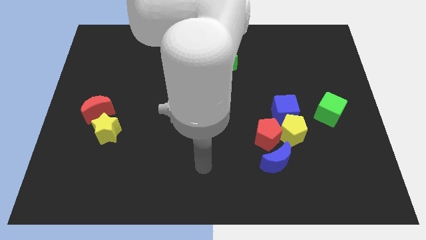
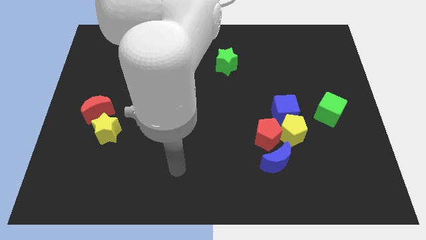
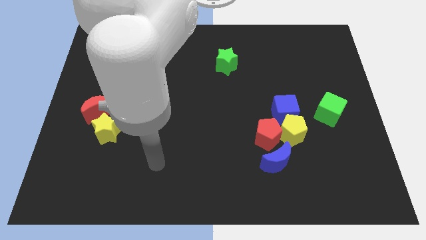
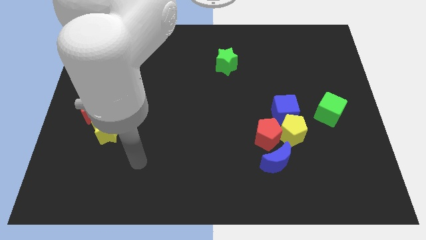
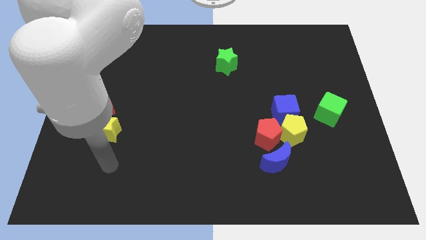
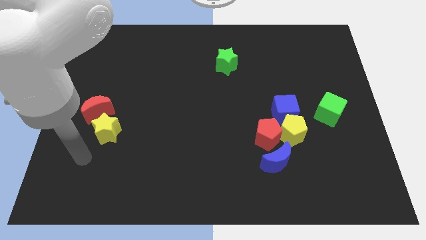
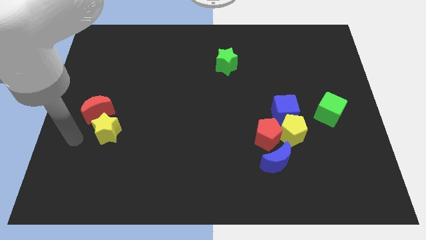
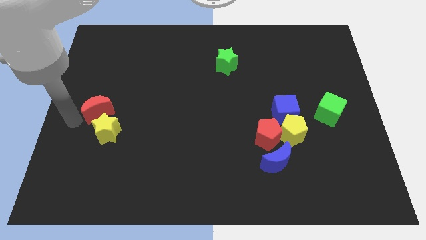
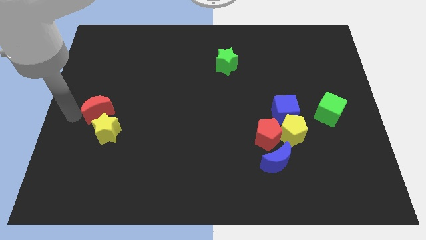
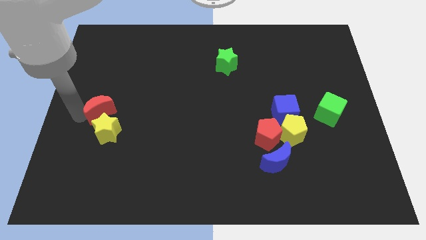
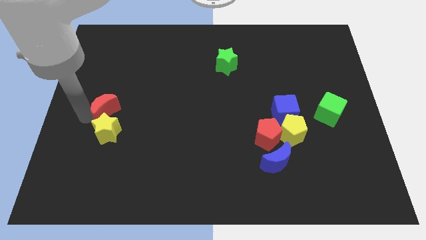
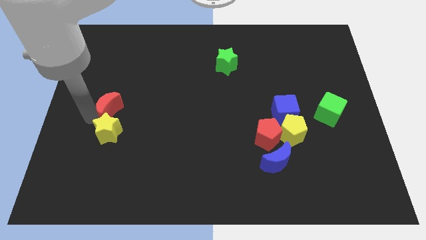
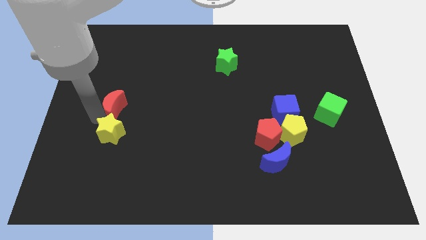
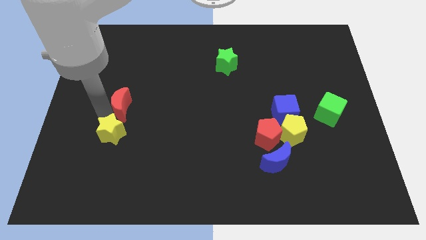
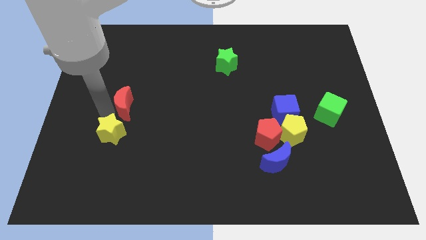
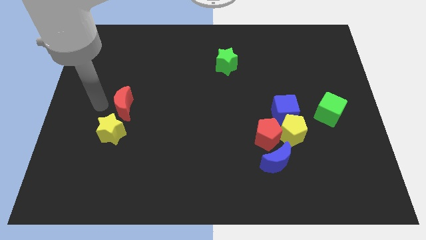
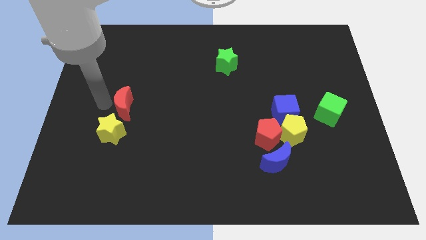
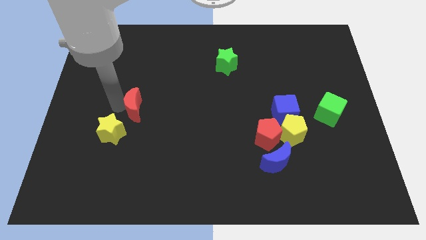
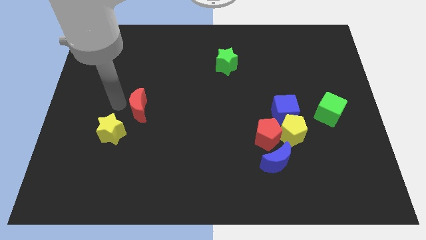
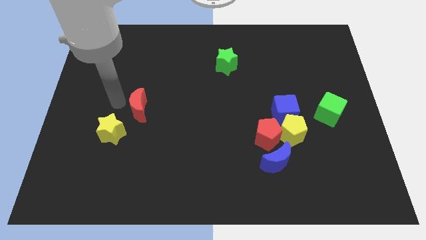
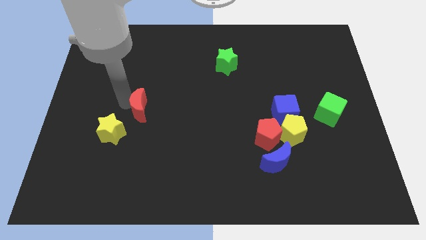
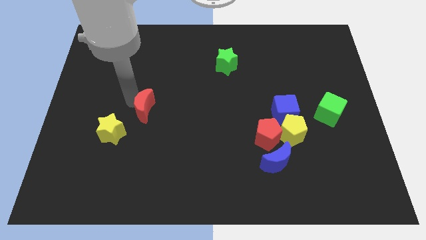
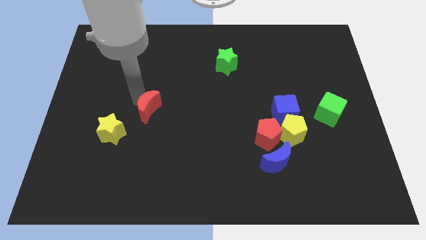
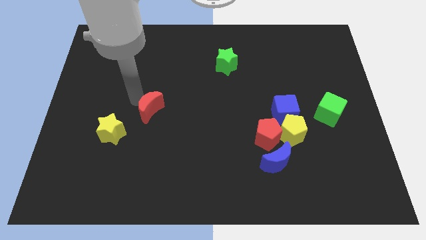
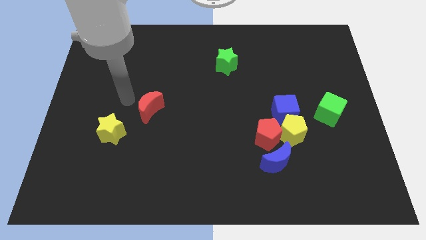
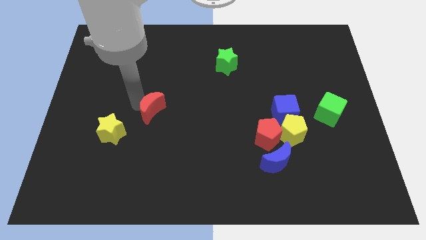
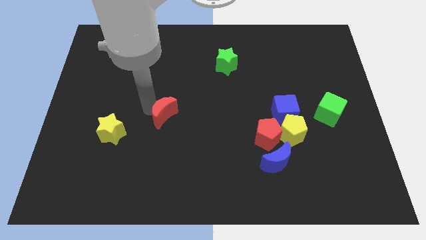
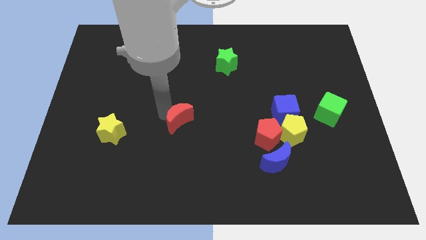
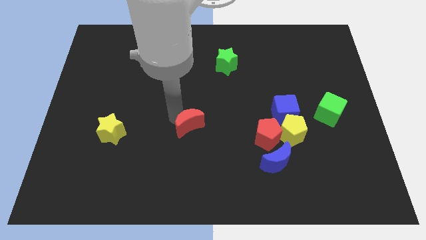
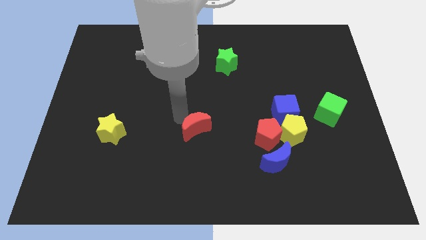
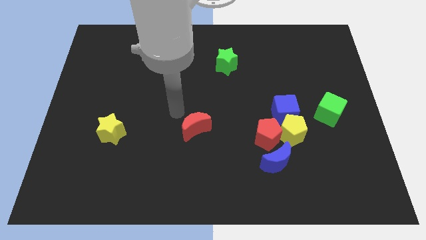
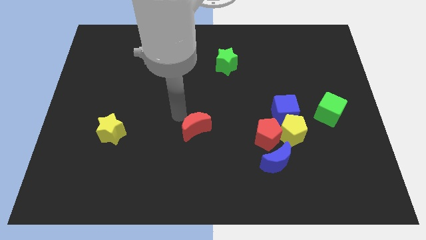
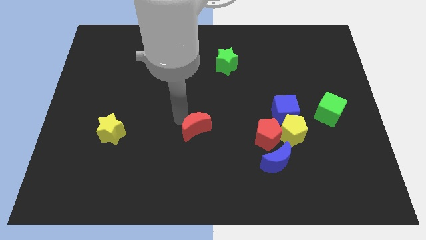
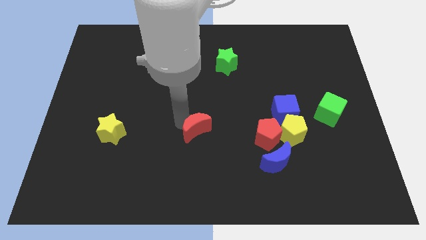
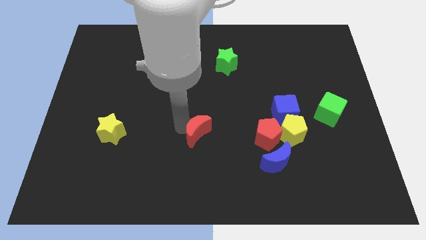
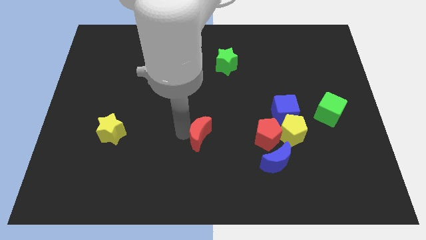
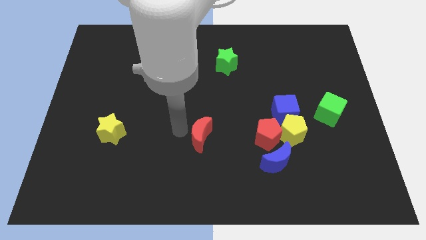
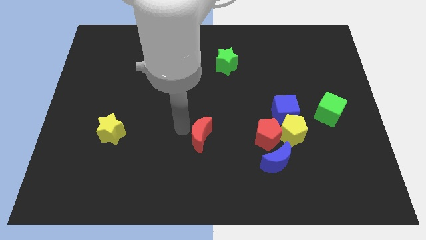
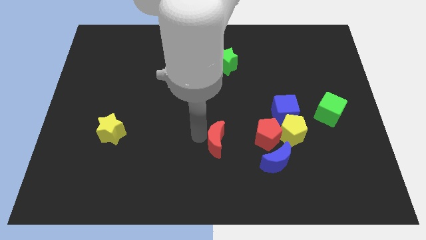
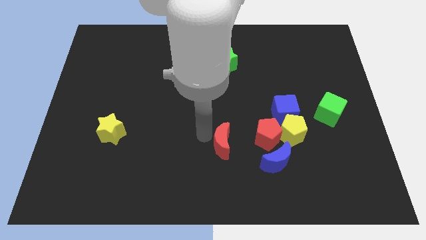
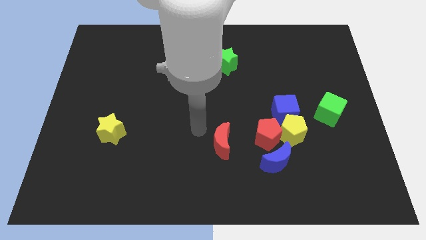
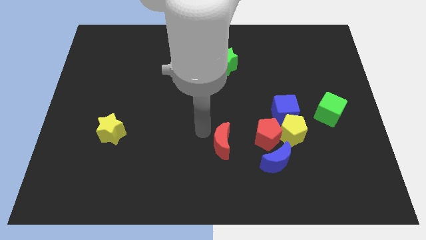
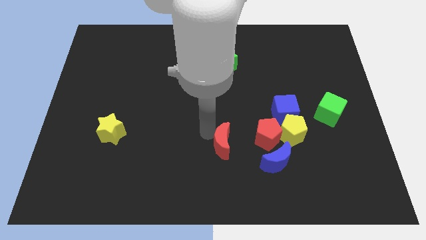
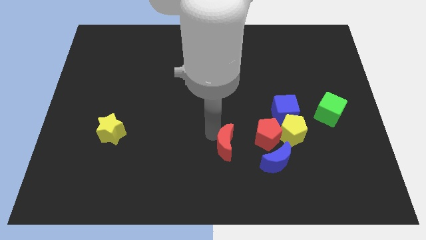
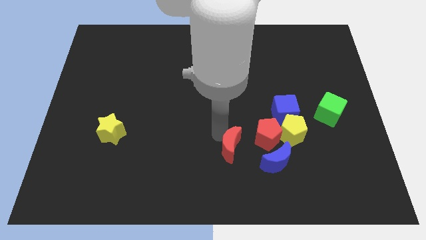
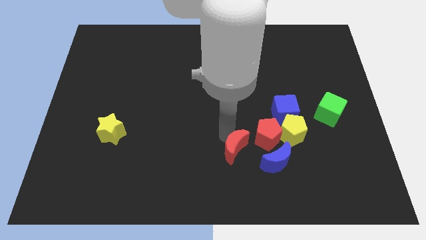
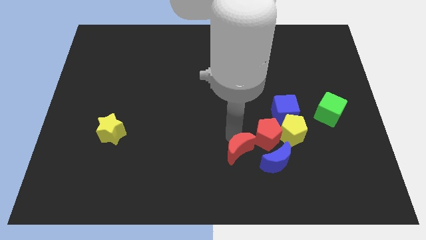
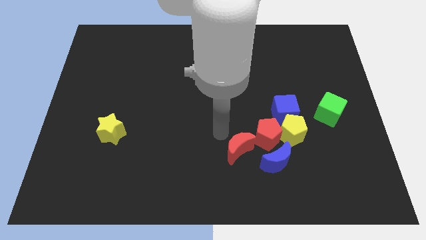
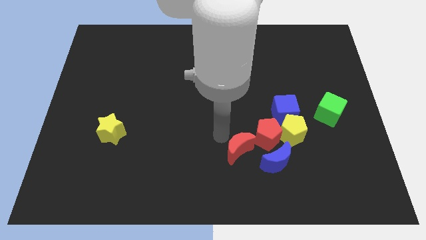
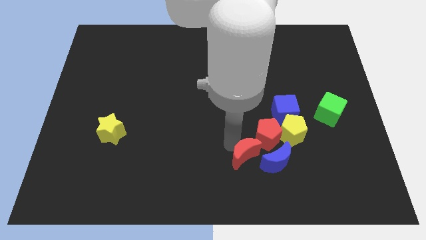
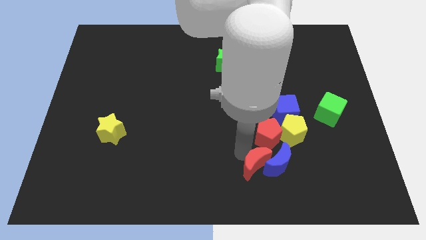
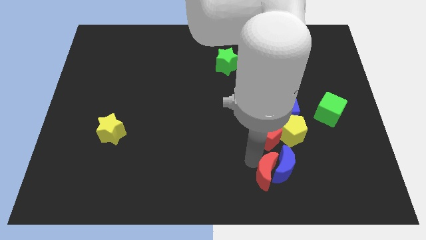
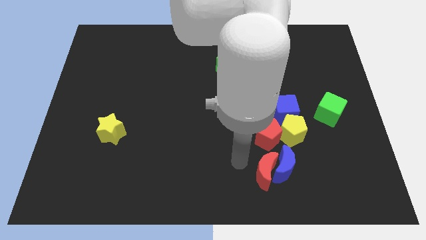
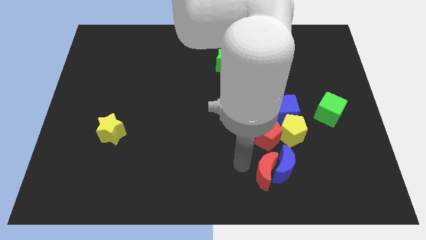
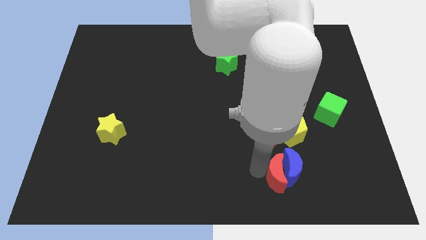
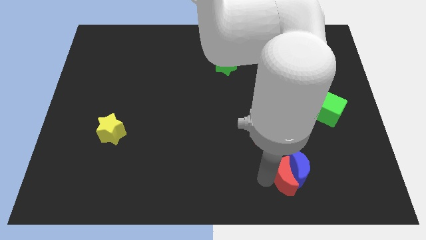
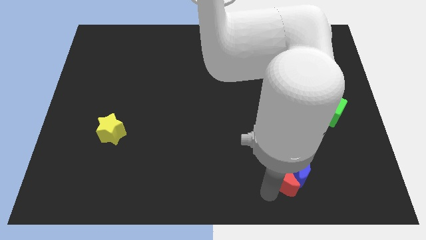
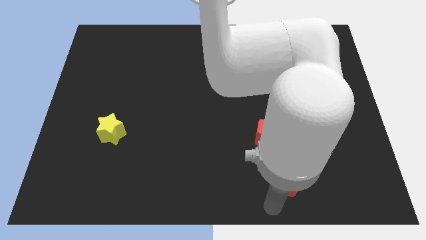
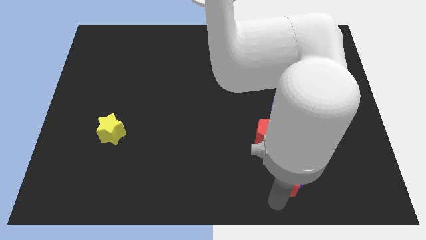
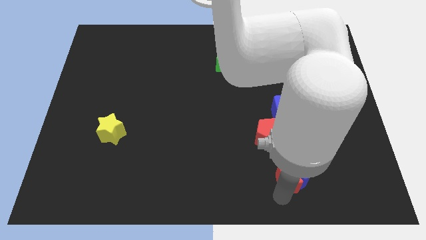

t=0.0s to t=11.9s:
put the red moon diagonally down and to the right of the red pentagon

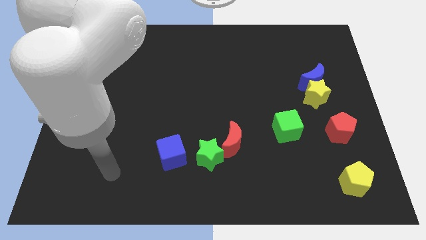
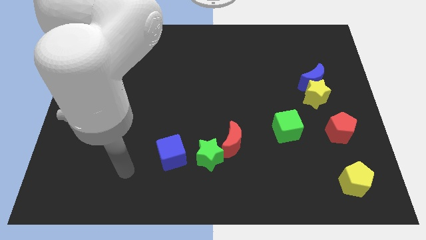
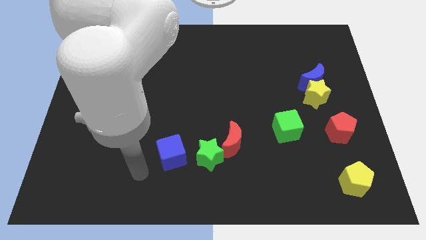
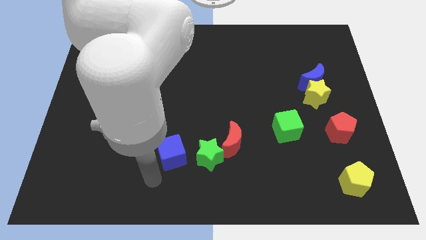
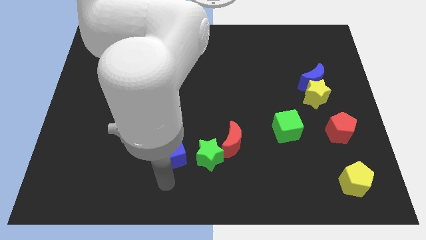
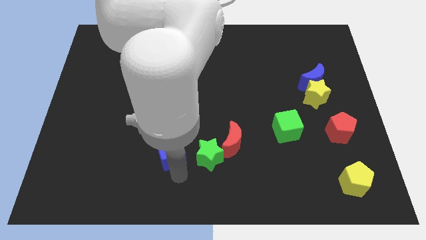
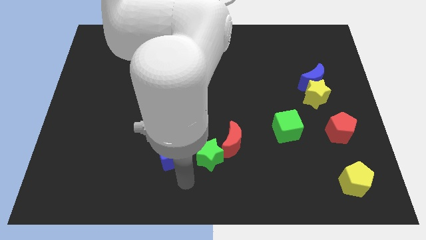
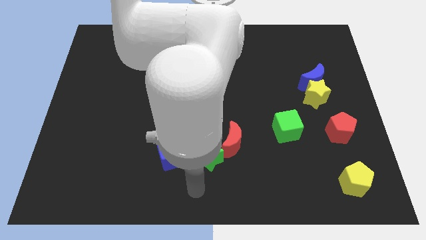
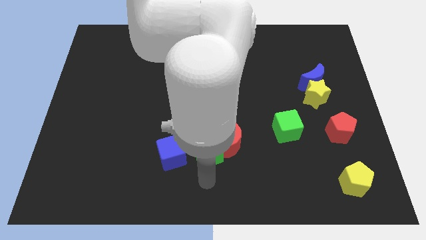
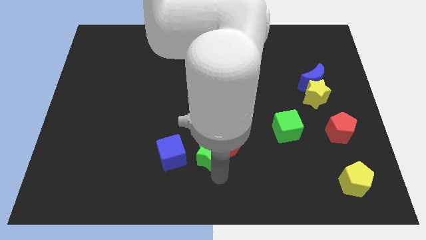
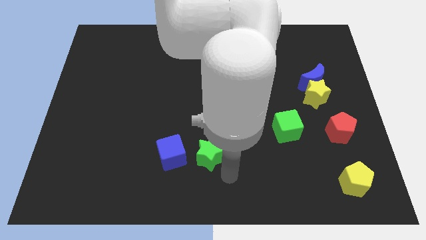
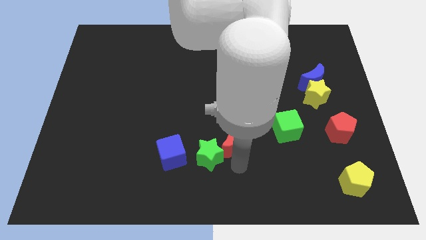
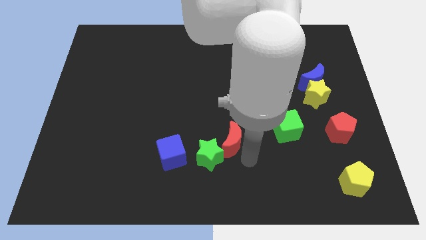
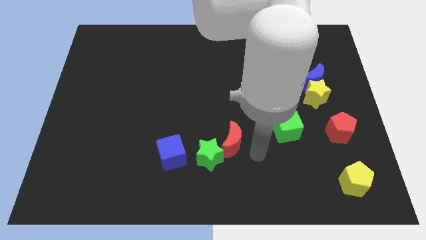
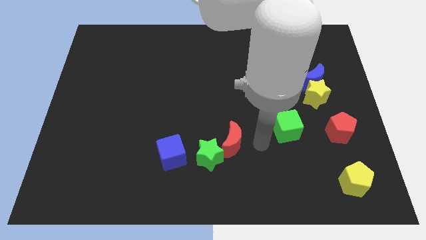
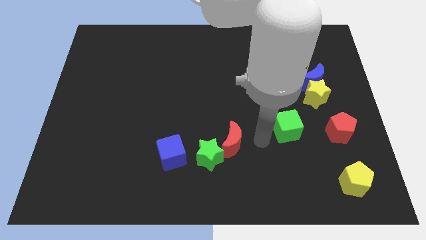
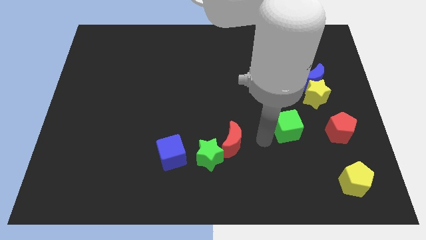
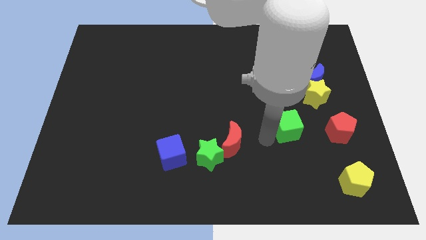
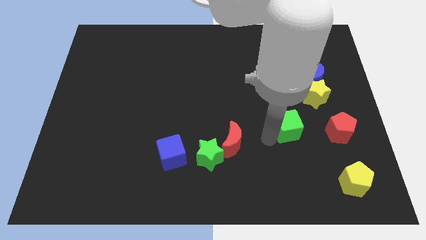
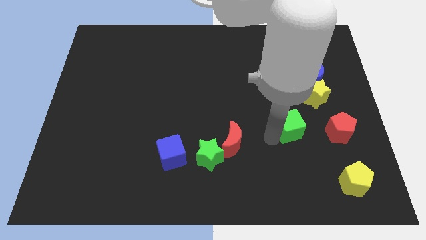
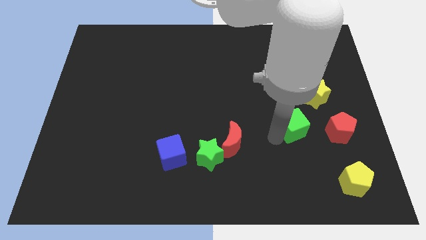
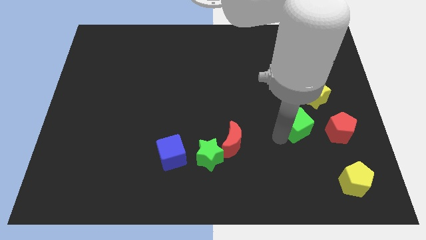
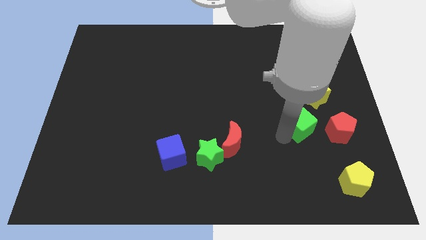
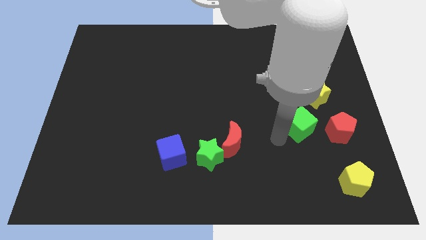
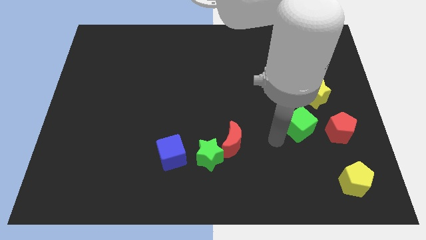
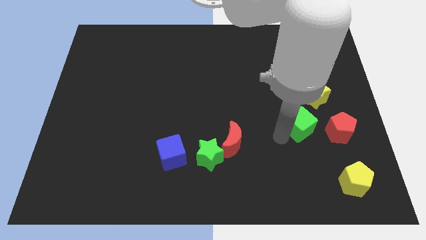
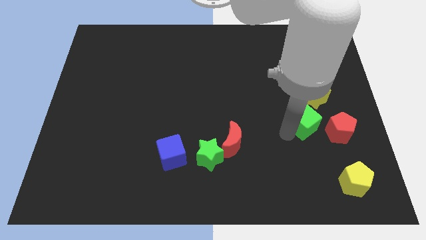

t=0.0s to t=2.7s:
push the green cube to the bottom side of the blue moon
